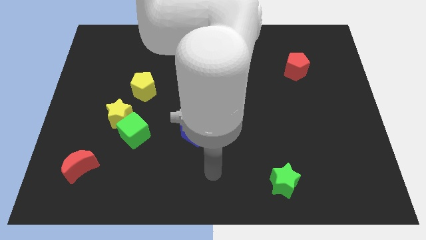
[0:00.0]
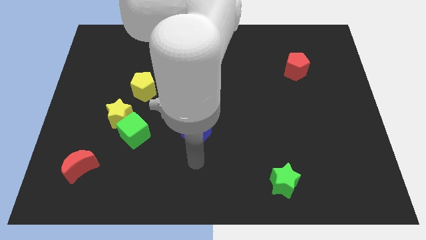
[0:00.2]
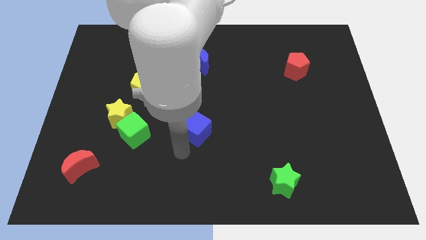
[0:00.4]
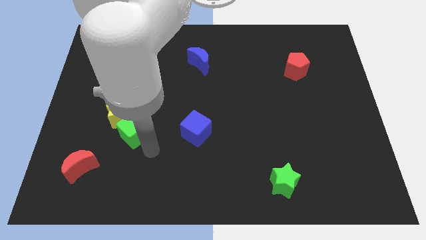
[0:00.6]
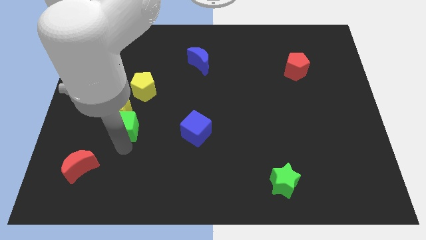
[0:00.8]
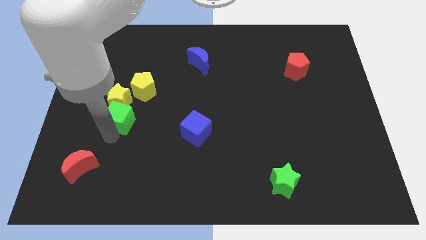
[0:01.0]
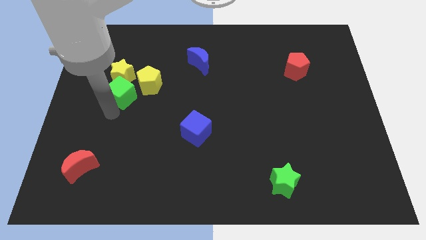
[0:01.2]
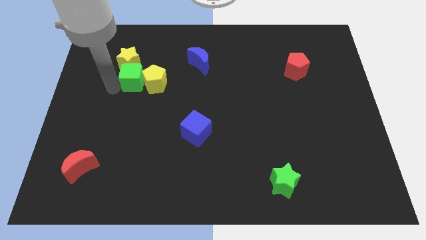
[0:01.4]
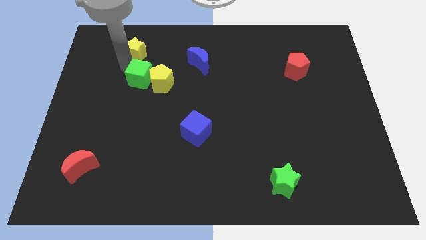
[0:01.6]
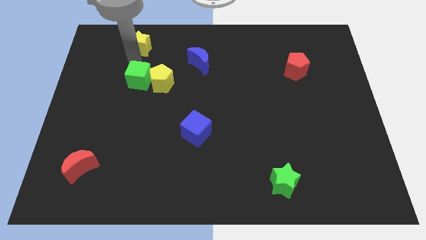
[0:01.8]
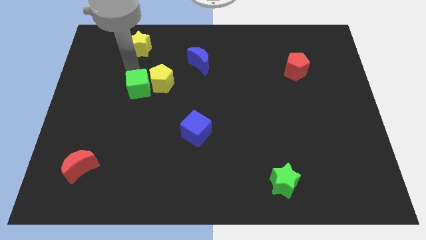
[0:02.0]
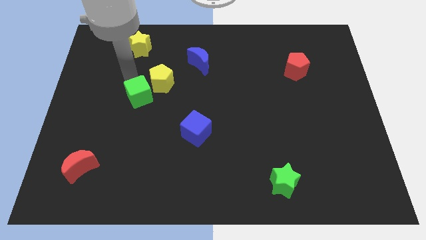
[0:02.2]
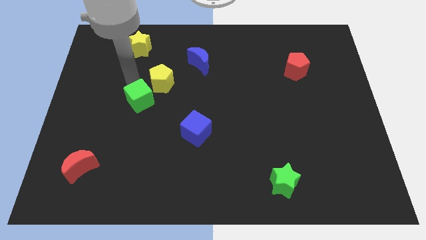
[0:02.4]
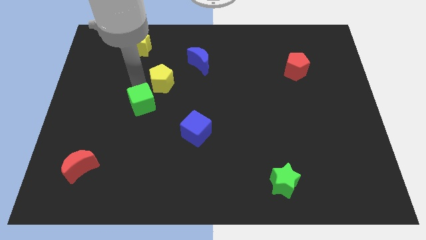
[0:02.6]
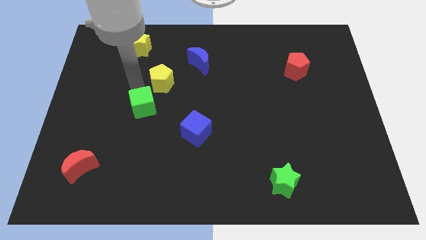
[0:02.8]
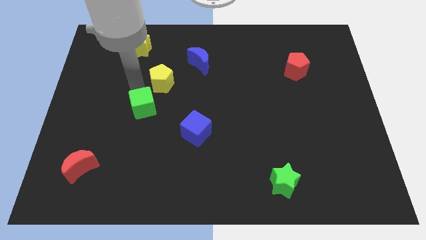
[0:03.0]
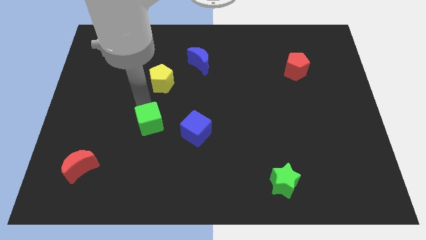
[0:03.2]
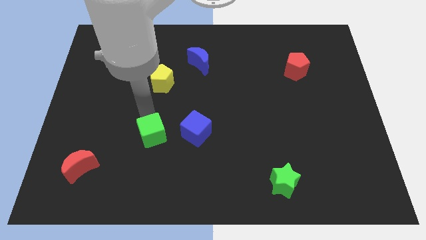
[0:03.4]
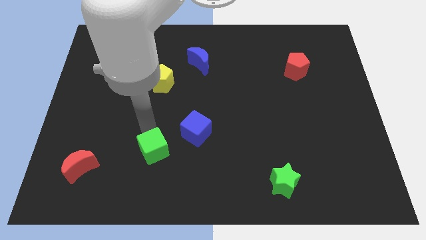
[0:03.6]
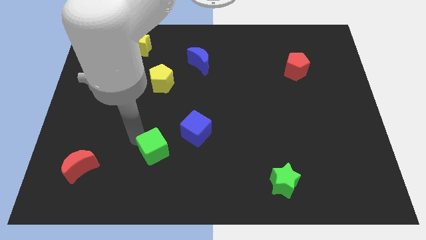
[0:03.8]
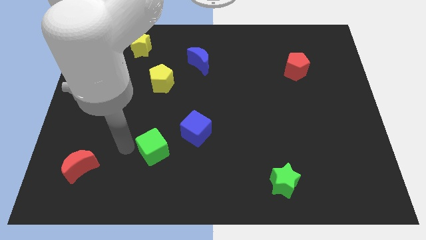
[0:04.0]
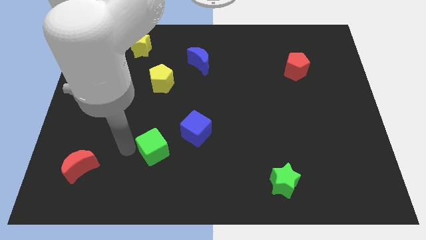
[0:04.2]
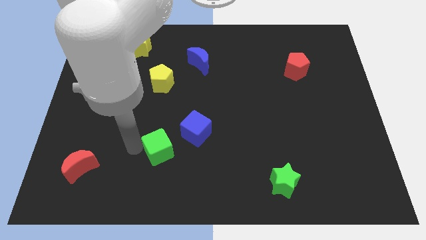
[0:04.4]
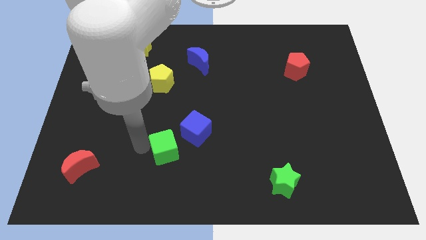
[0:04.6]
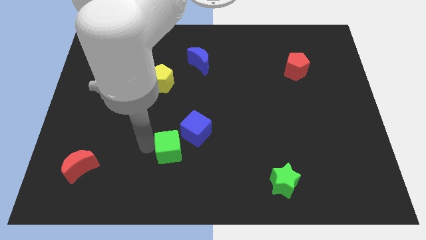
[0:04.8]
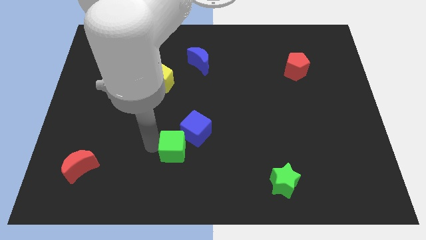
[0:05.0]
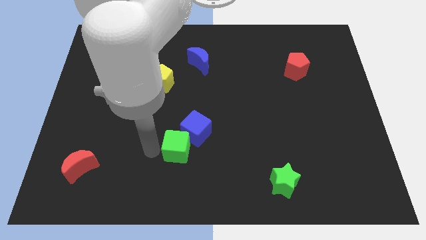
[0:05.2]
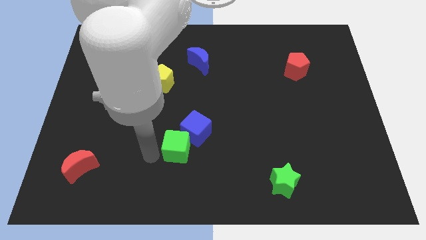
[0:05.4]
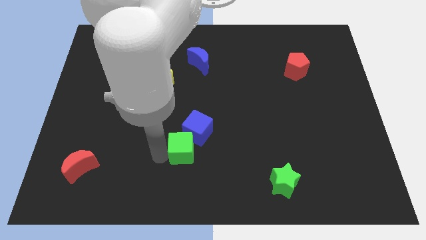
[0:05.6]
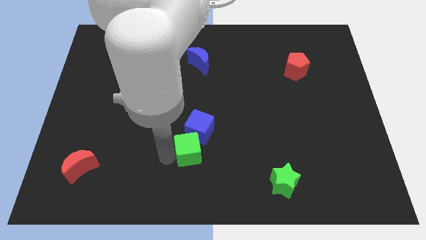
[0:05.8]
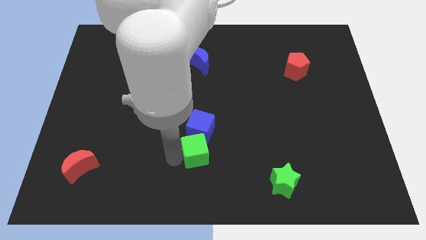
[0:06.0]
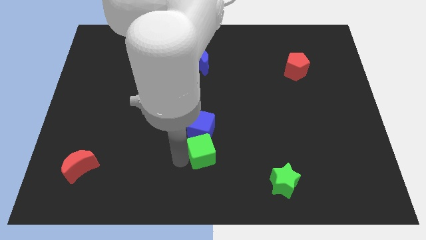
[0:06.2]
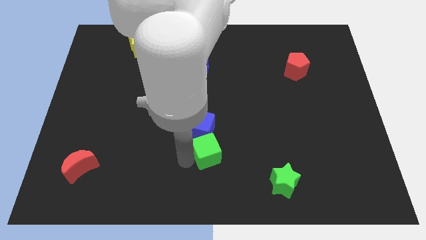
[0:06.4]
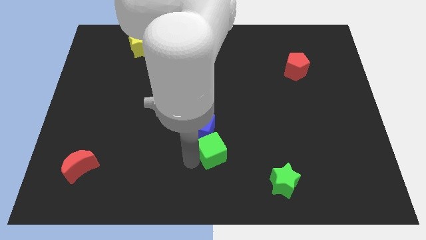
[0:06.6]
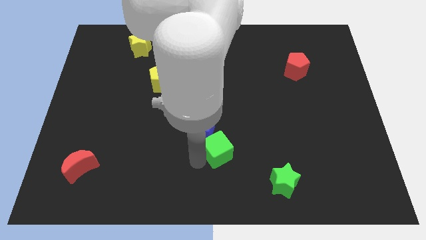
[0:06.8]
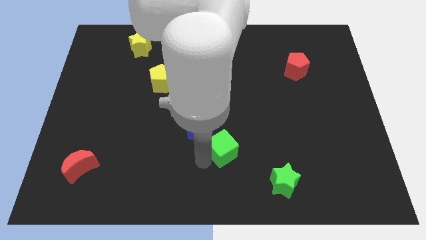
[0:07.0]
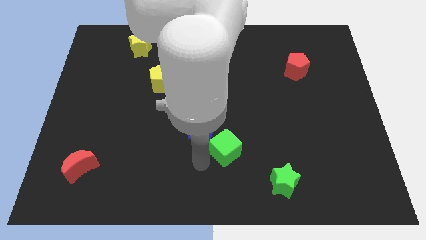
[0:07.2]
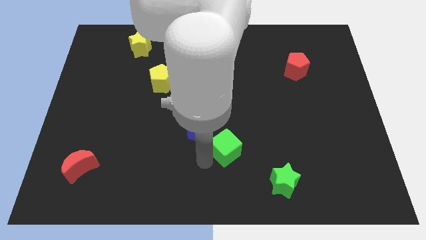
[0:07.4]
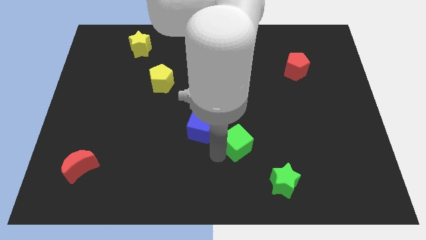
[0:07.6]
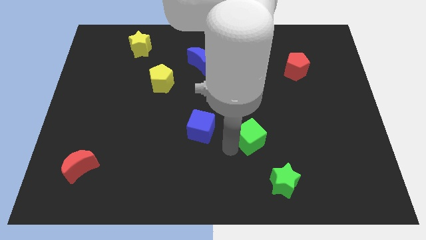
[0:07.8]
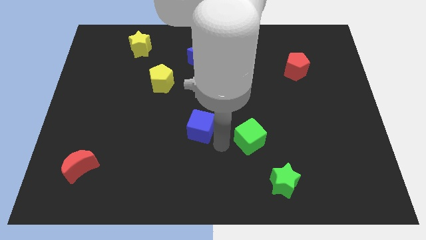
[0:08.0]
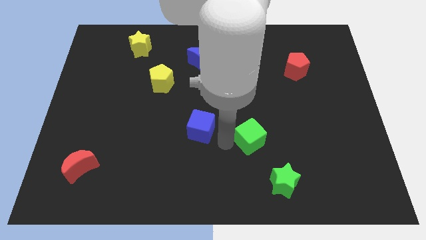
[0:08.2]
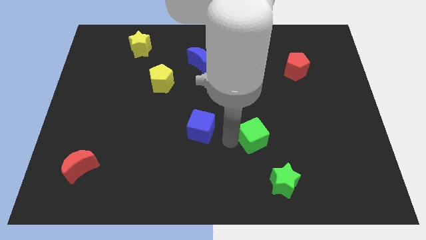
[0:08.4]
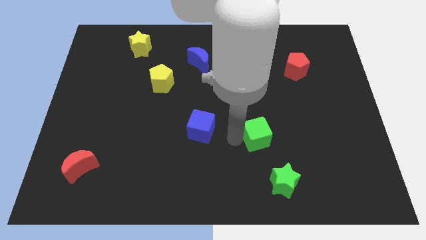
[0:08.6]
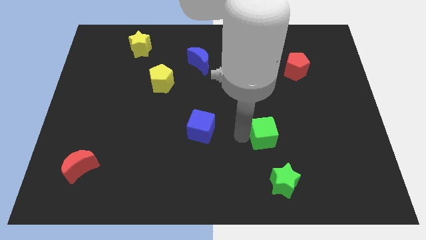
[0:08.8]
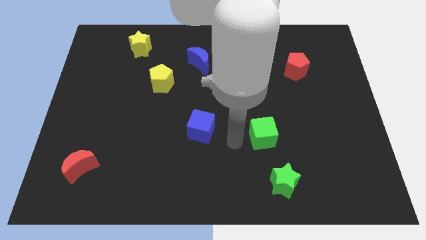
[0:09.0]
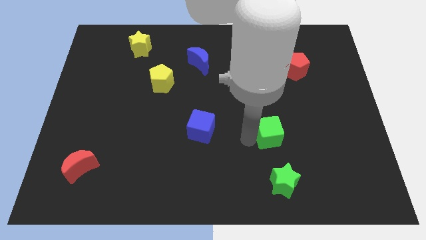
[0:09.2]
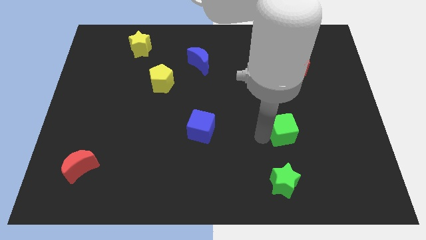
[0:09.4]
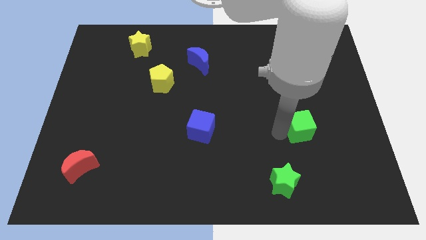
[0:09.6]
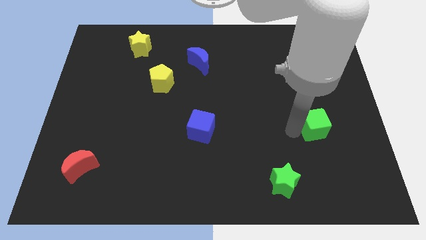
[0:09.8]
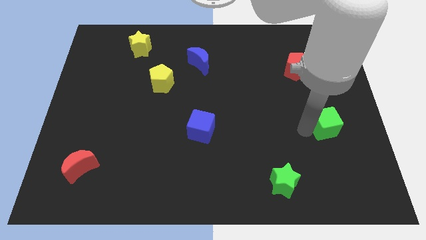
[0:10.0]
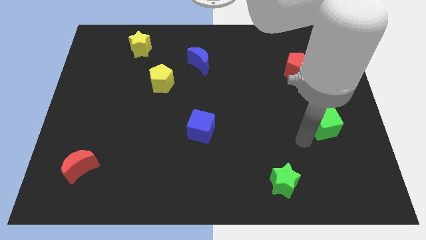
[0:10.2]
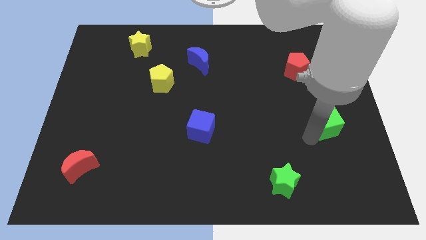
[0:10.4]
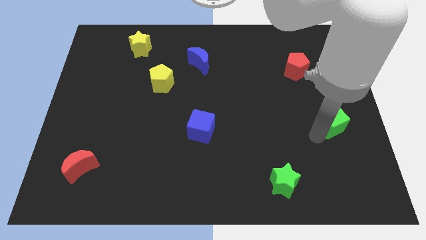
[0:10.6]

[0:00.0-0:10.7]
push the green cube to the right side

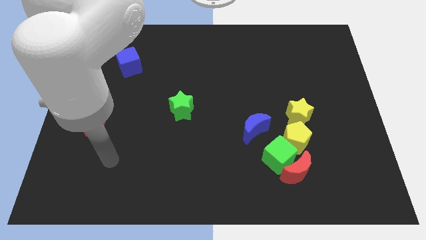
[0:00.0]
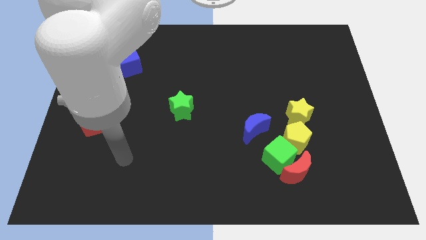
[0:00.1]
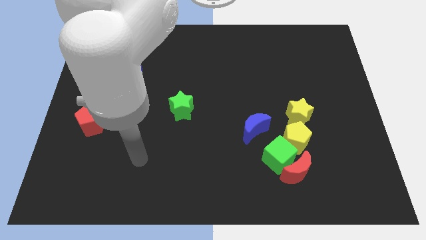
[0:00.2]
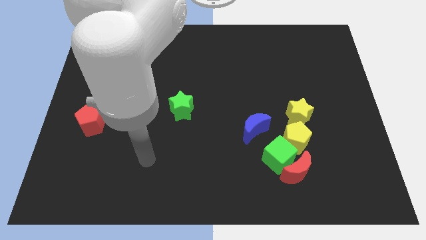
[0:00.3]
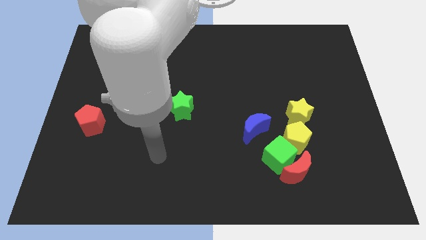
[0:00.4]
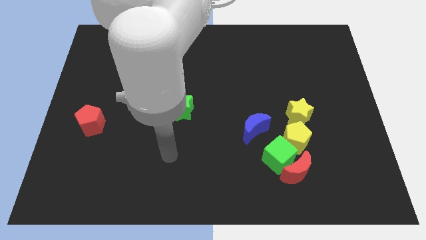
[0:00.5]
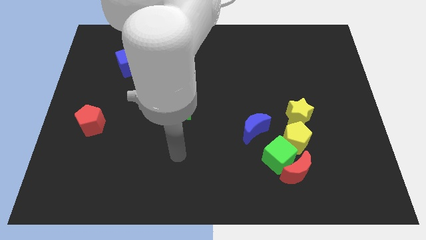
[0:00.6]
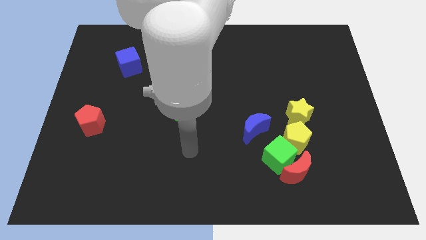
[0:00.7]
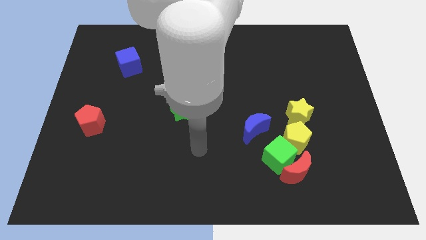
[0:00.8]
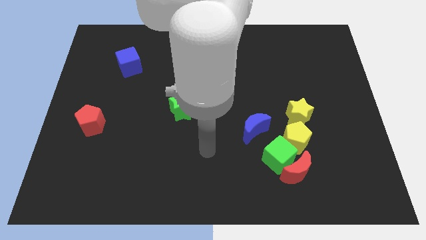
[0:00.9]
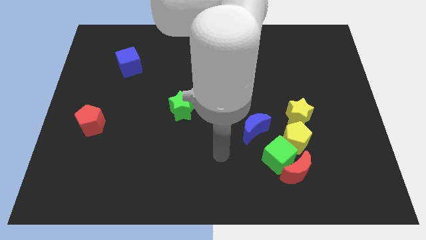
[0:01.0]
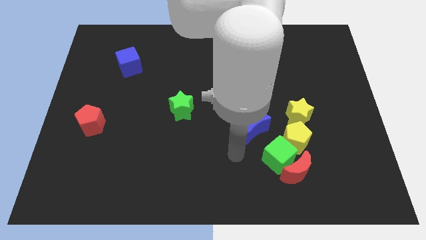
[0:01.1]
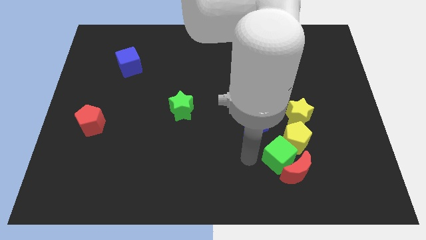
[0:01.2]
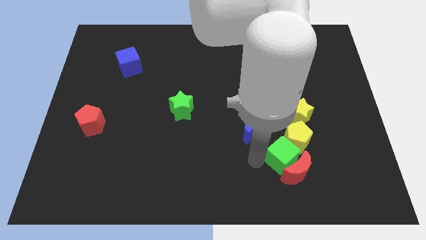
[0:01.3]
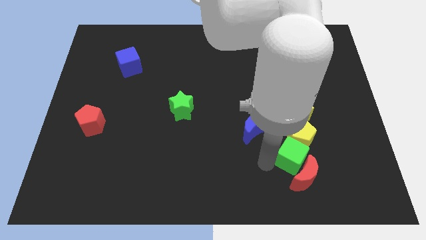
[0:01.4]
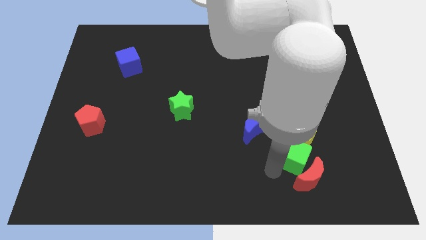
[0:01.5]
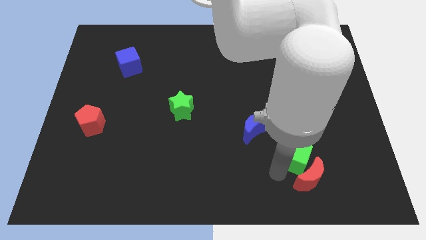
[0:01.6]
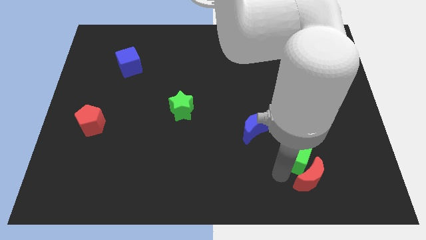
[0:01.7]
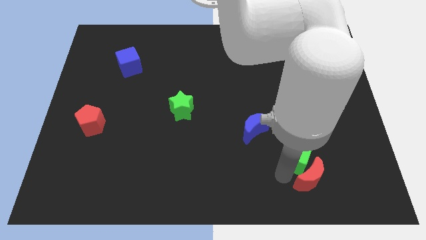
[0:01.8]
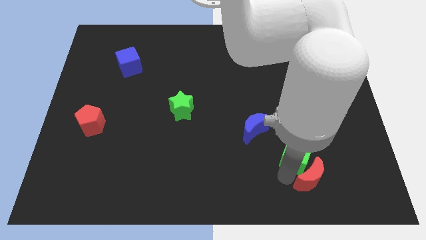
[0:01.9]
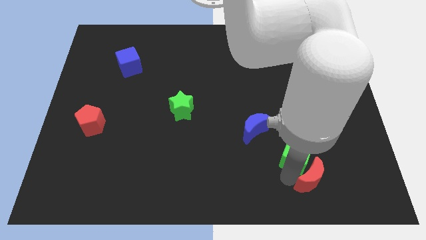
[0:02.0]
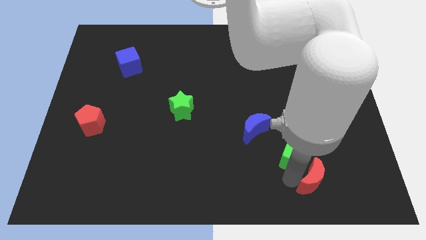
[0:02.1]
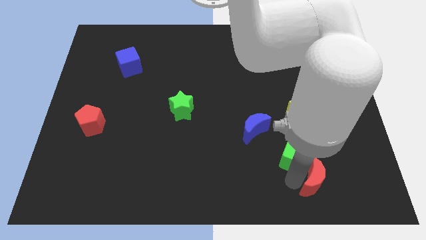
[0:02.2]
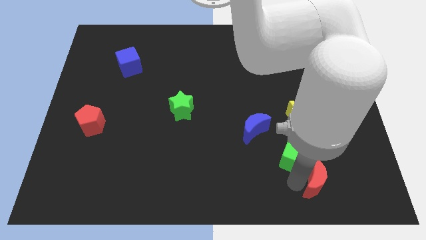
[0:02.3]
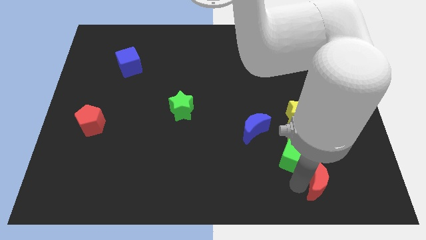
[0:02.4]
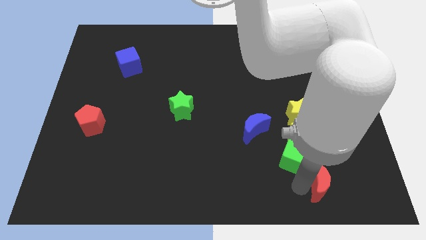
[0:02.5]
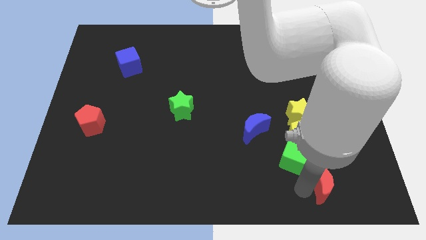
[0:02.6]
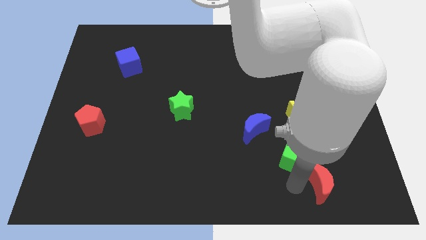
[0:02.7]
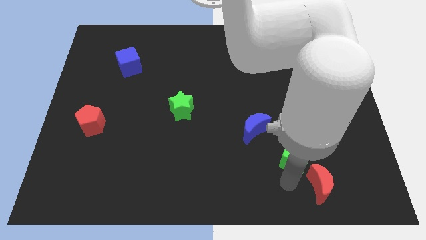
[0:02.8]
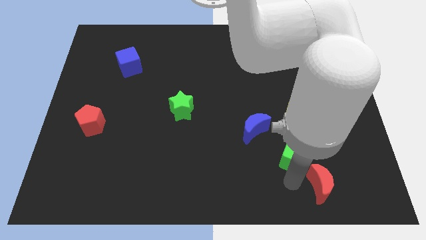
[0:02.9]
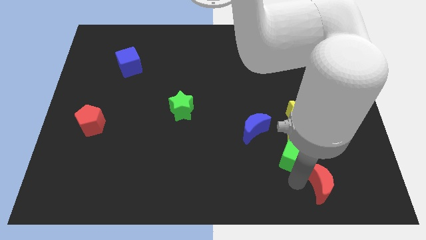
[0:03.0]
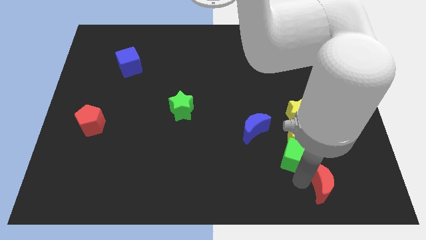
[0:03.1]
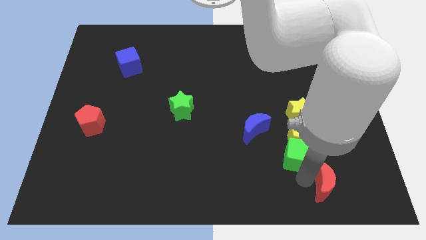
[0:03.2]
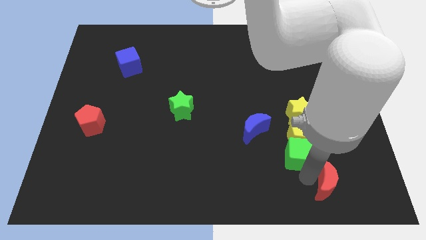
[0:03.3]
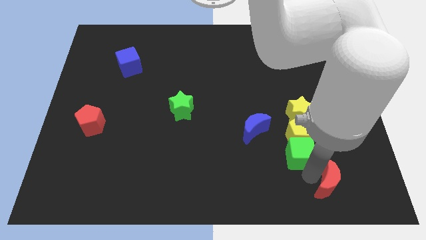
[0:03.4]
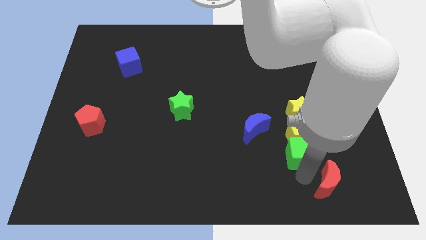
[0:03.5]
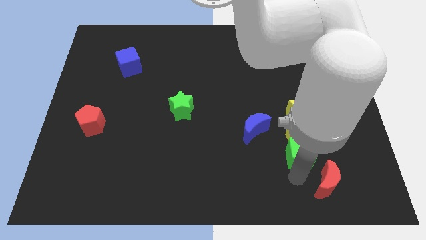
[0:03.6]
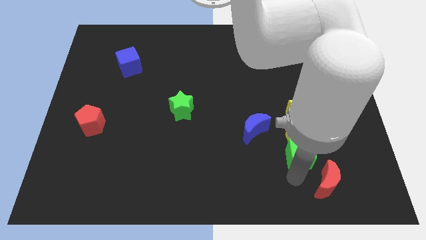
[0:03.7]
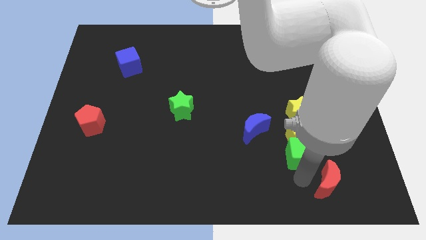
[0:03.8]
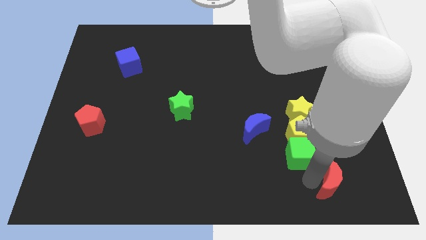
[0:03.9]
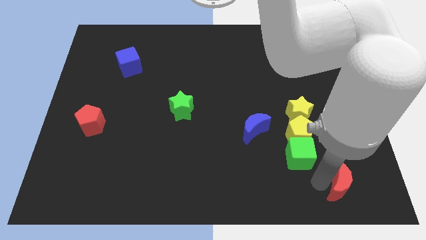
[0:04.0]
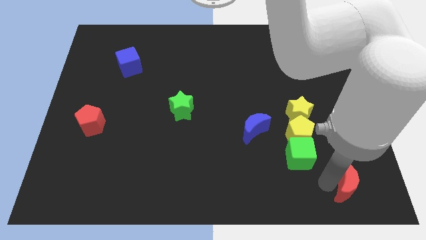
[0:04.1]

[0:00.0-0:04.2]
push the red moon to the bottom right
